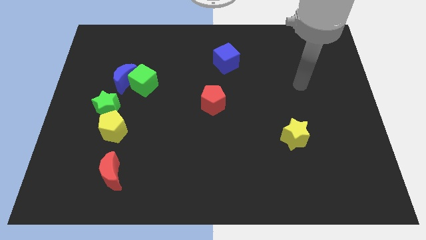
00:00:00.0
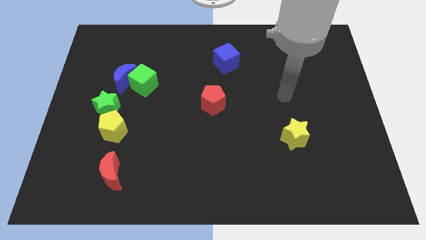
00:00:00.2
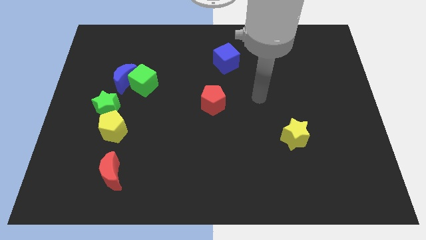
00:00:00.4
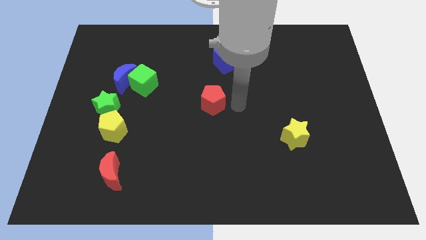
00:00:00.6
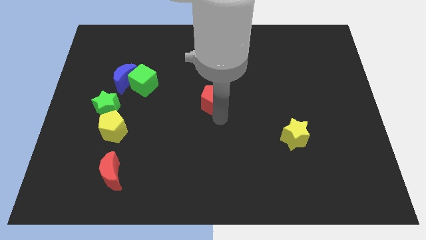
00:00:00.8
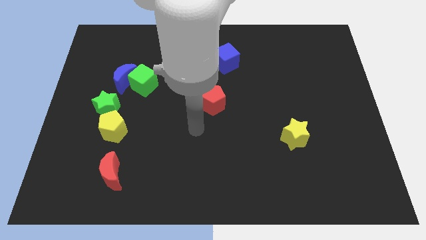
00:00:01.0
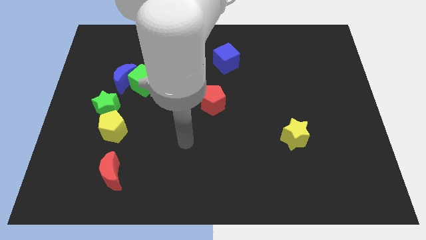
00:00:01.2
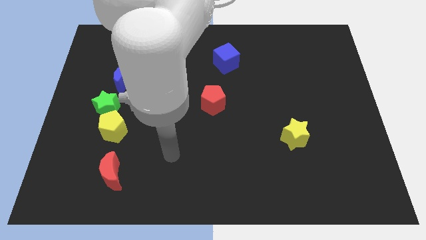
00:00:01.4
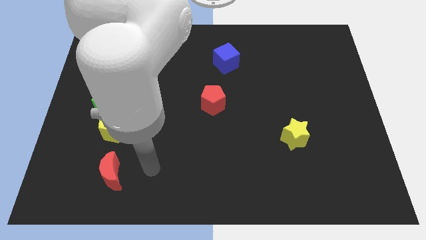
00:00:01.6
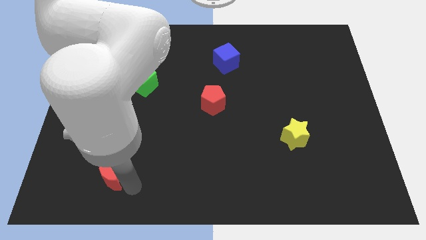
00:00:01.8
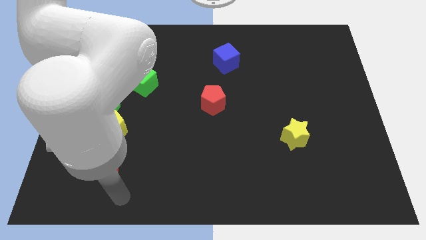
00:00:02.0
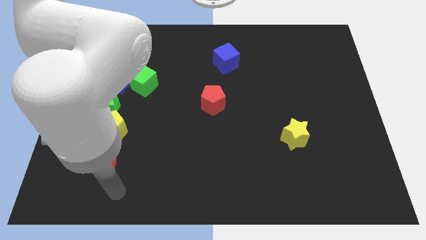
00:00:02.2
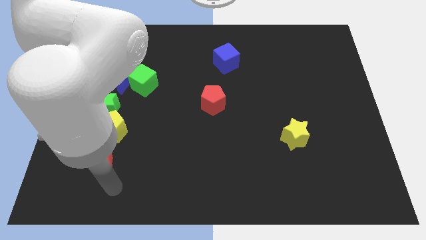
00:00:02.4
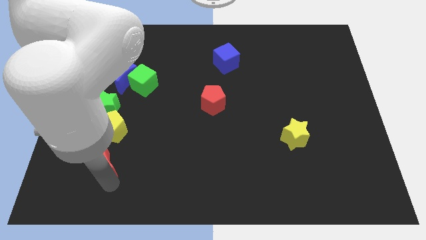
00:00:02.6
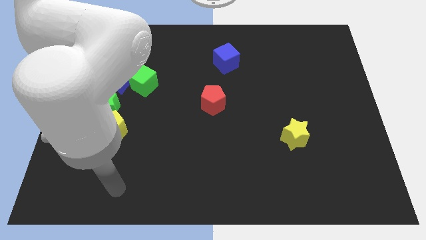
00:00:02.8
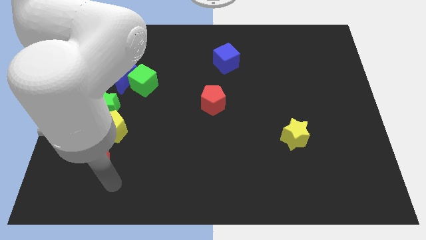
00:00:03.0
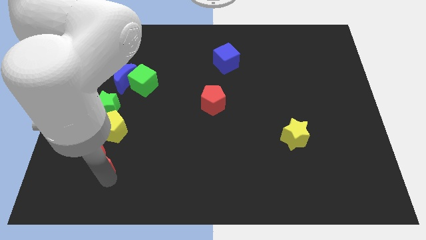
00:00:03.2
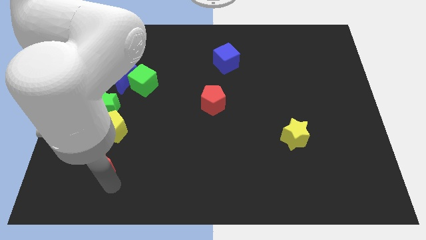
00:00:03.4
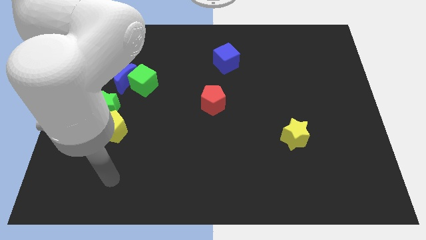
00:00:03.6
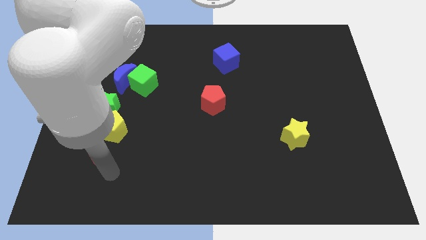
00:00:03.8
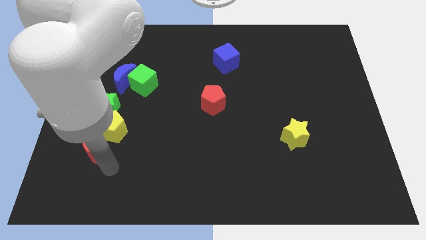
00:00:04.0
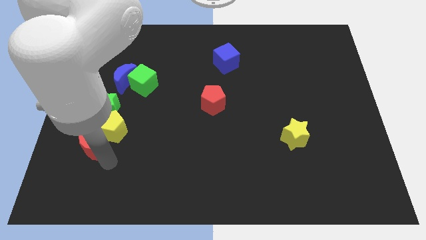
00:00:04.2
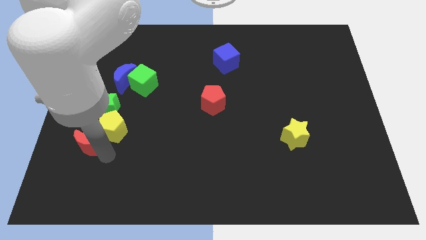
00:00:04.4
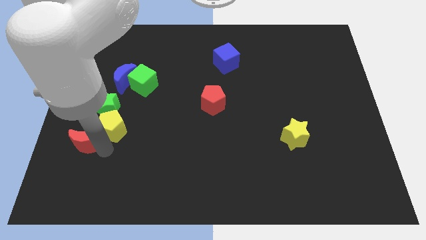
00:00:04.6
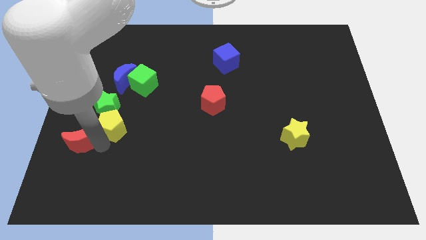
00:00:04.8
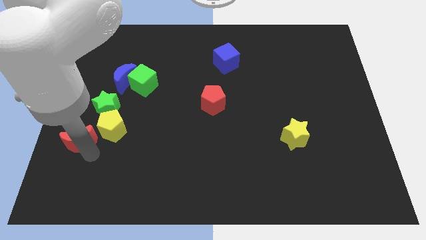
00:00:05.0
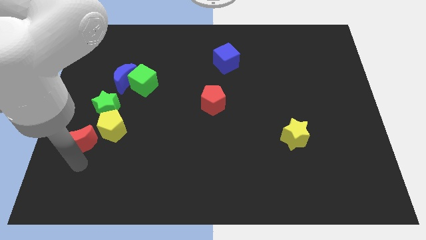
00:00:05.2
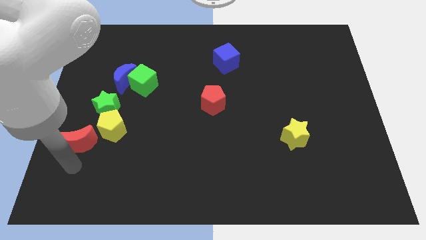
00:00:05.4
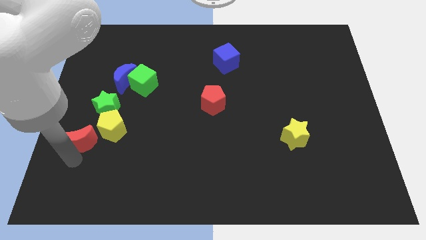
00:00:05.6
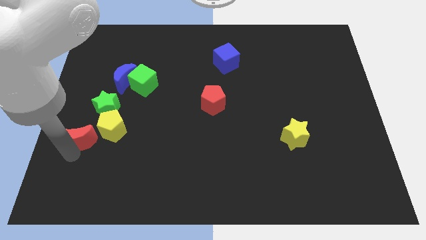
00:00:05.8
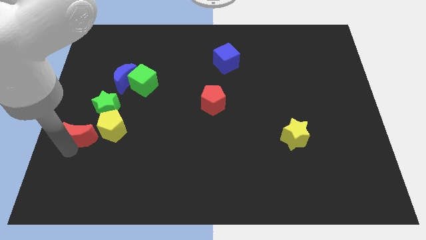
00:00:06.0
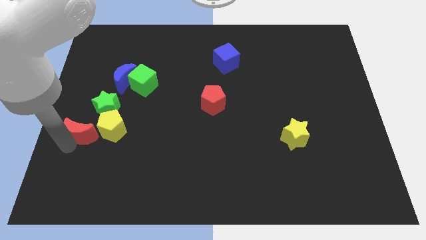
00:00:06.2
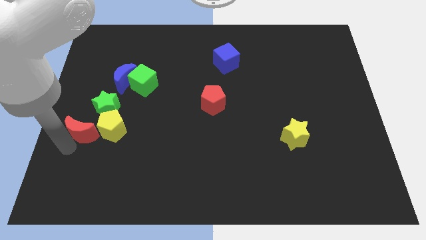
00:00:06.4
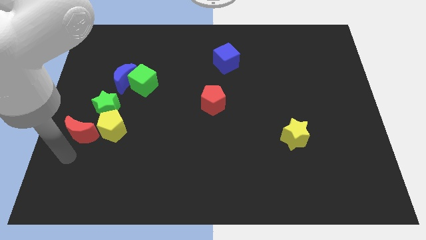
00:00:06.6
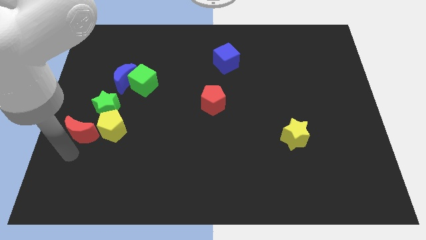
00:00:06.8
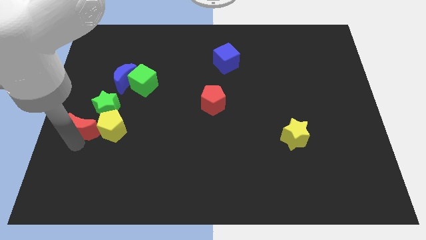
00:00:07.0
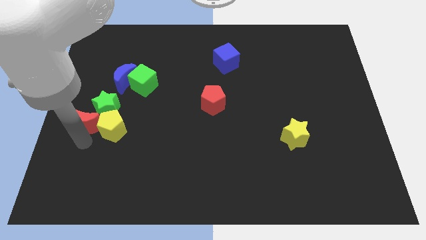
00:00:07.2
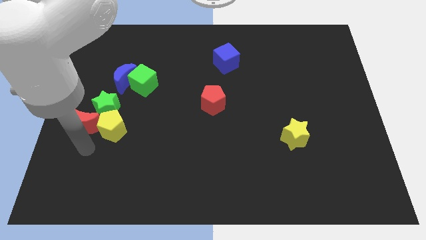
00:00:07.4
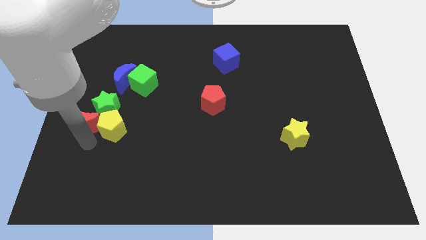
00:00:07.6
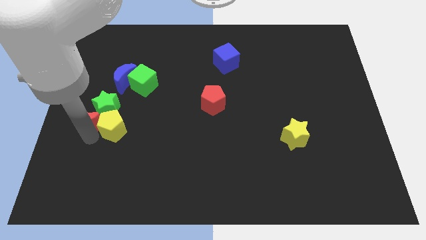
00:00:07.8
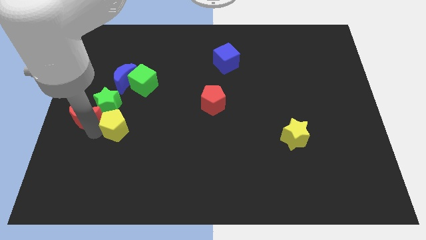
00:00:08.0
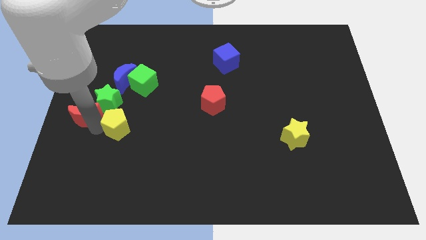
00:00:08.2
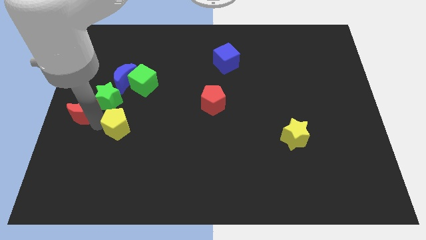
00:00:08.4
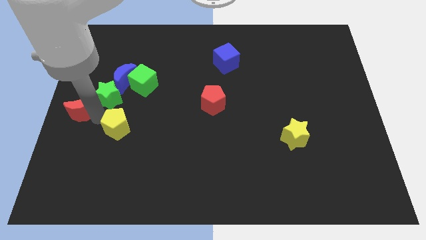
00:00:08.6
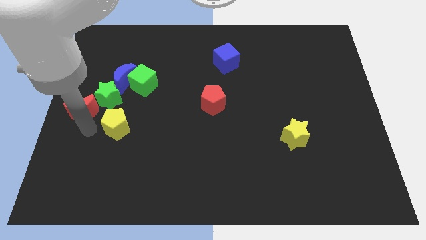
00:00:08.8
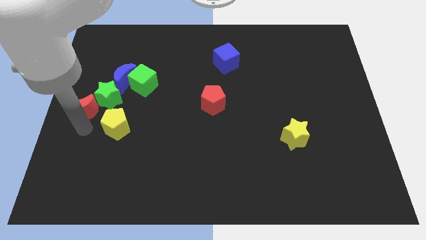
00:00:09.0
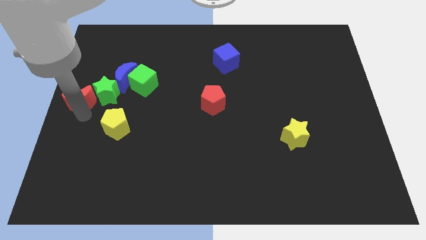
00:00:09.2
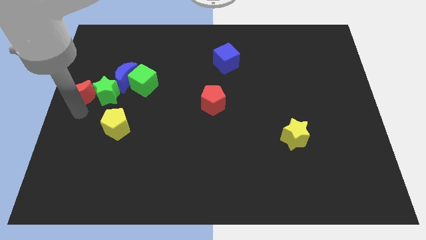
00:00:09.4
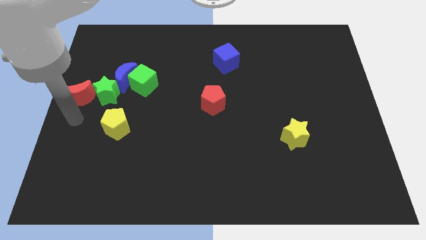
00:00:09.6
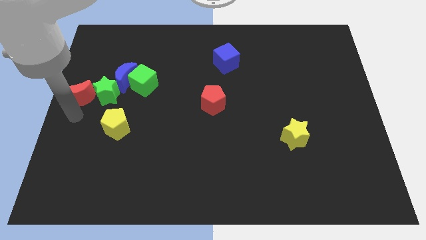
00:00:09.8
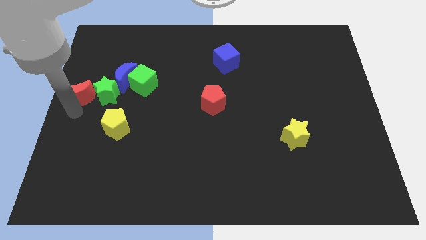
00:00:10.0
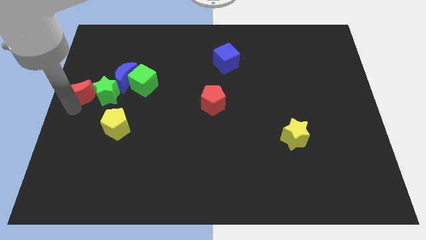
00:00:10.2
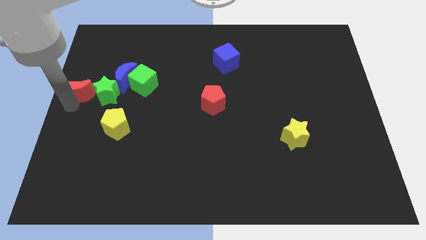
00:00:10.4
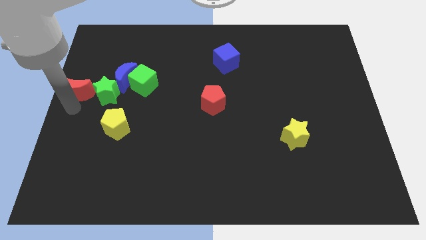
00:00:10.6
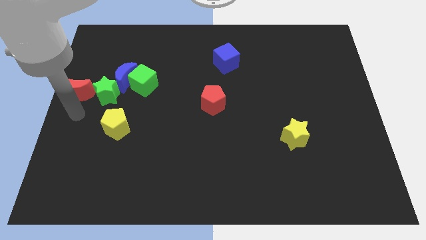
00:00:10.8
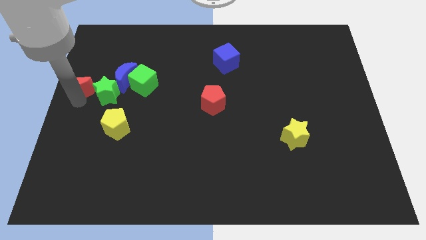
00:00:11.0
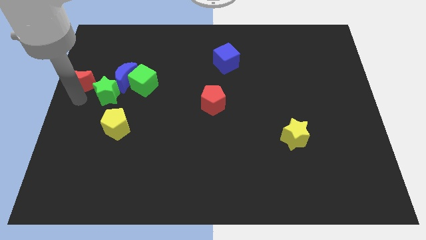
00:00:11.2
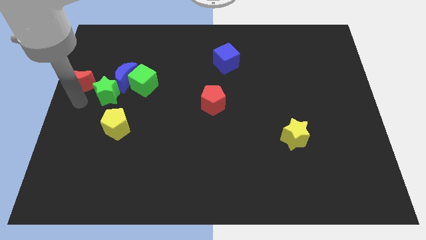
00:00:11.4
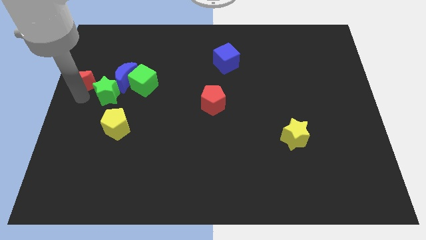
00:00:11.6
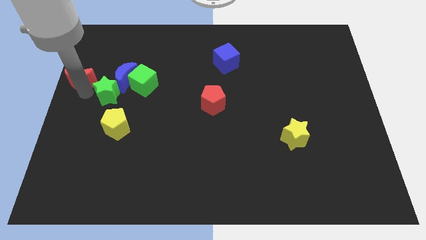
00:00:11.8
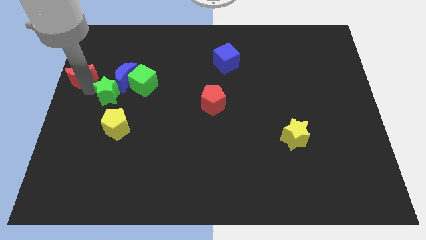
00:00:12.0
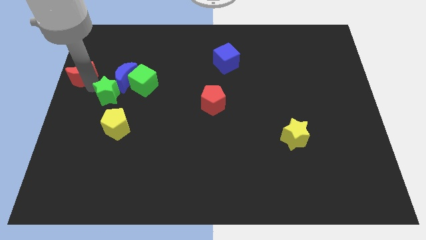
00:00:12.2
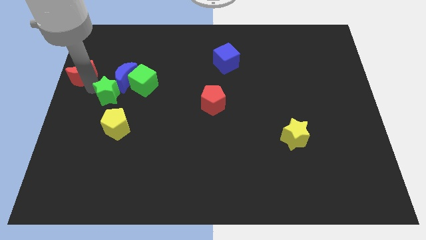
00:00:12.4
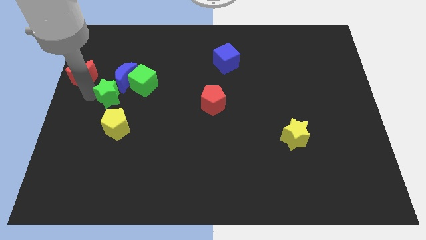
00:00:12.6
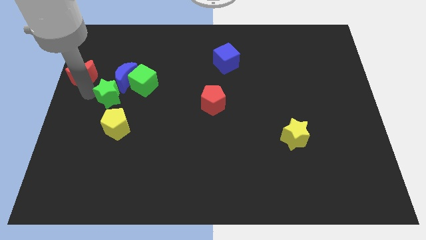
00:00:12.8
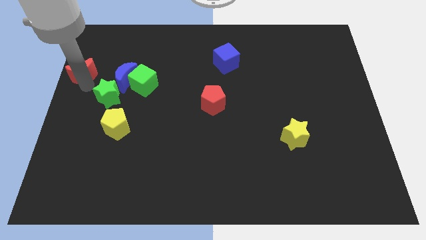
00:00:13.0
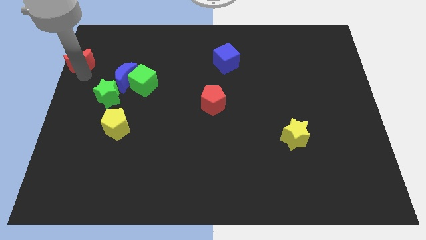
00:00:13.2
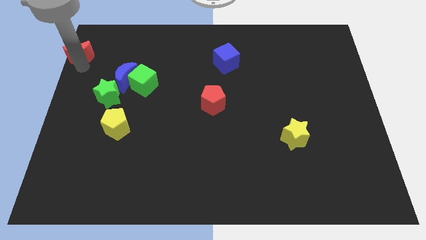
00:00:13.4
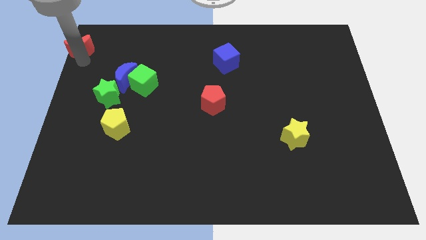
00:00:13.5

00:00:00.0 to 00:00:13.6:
put the red moon to the top left of the board
